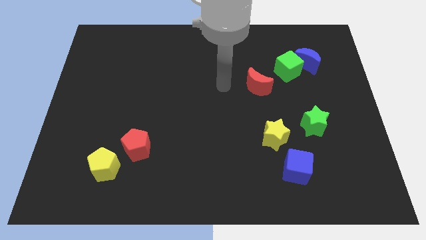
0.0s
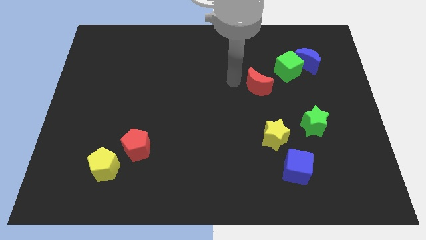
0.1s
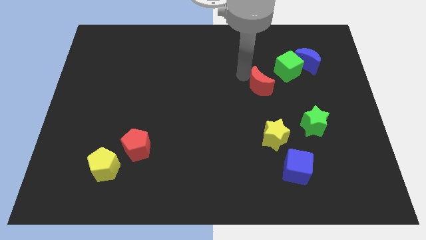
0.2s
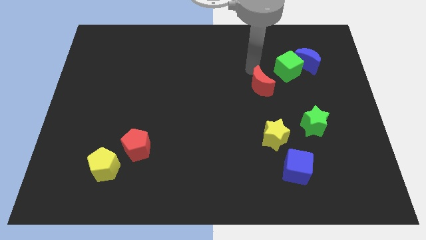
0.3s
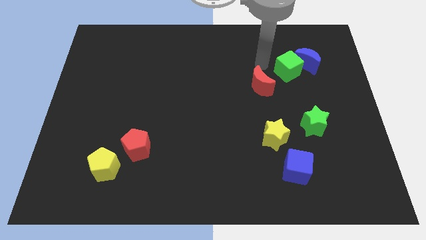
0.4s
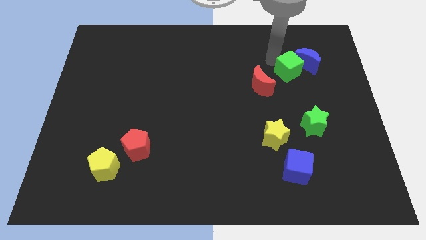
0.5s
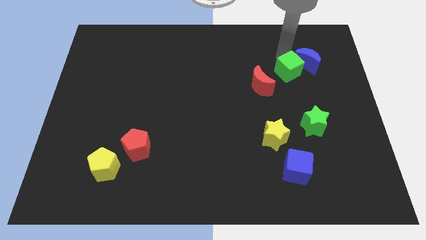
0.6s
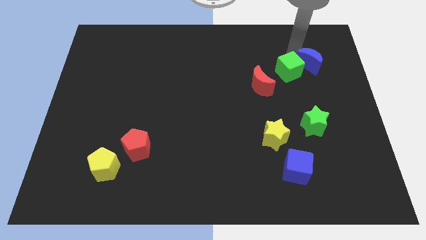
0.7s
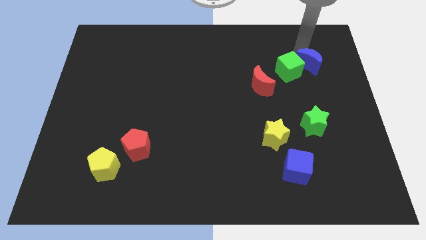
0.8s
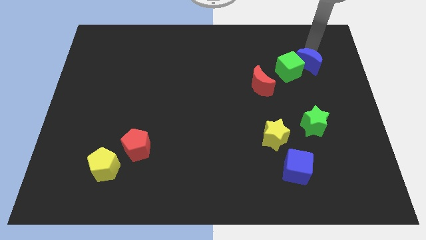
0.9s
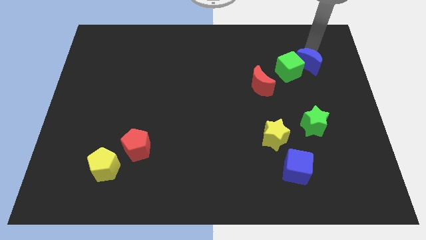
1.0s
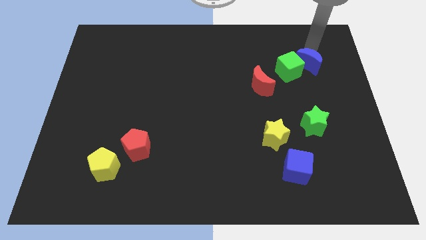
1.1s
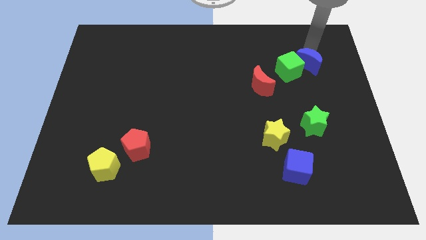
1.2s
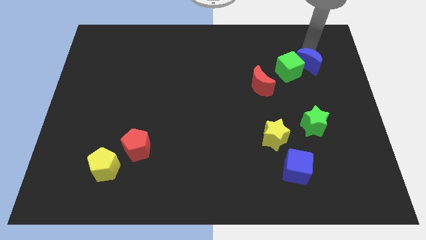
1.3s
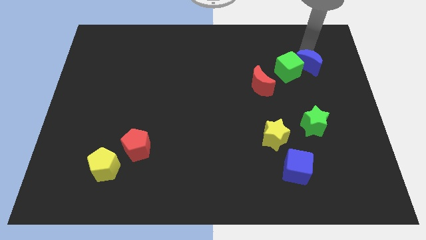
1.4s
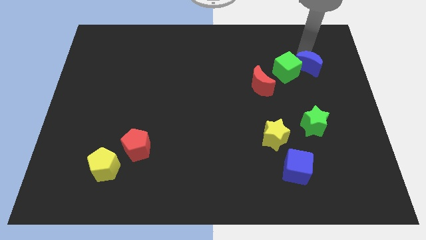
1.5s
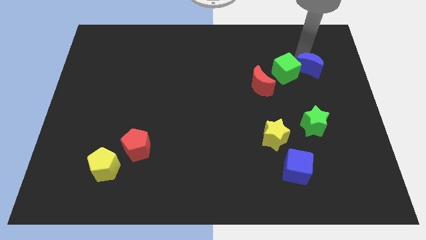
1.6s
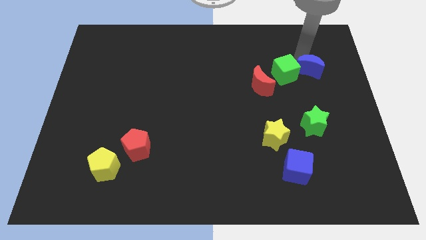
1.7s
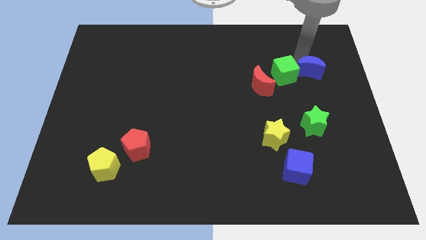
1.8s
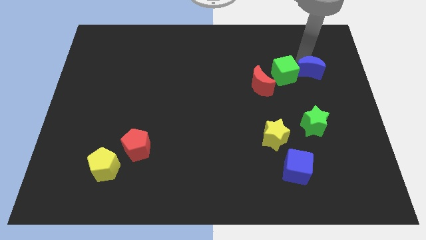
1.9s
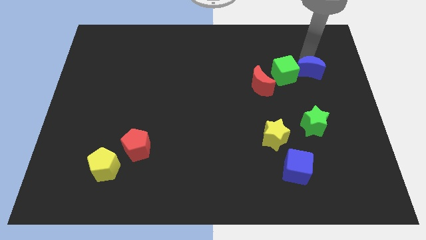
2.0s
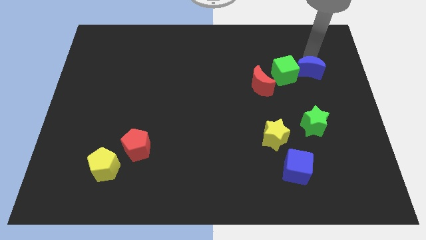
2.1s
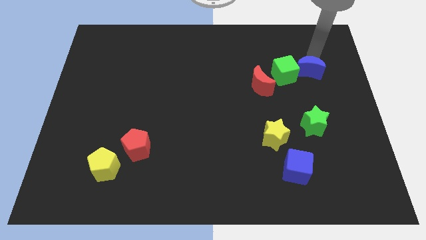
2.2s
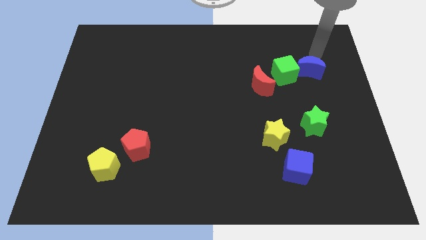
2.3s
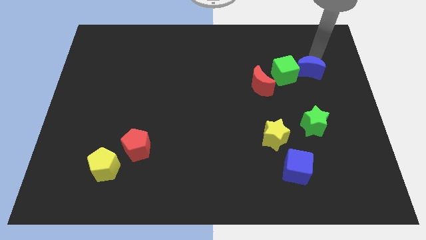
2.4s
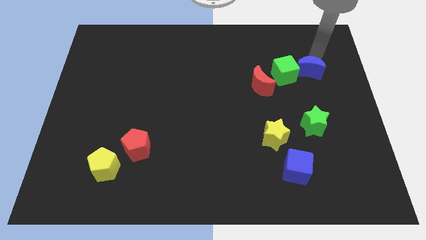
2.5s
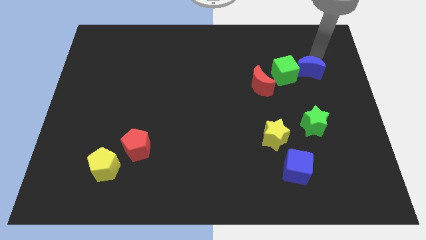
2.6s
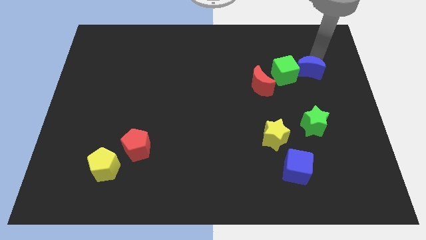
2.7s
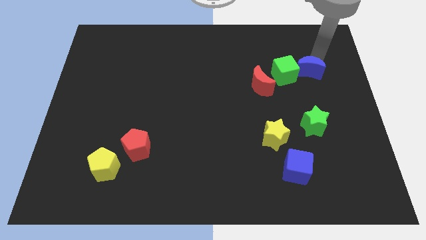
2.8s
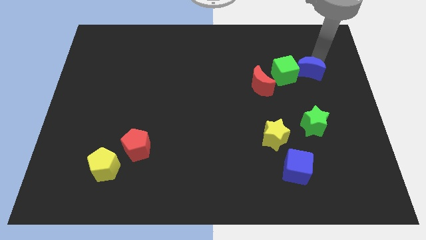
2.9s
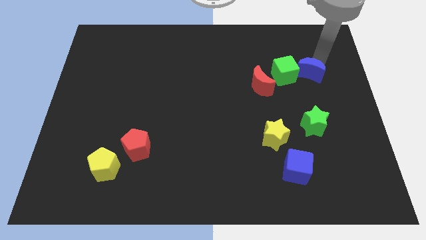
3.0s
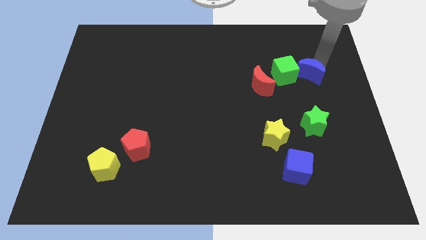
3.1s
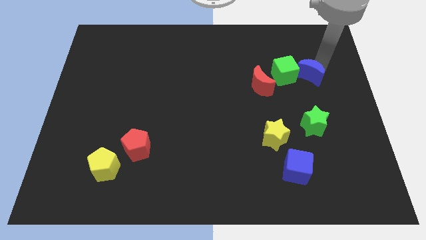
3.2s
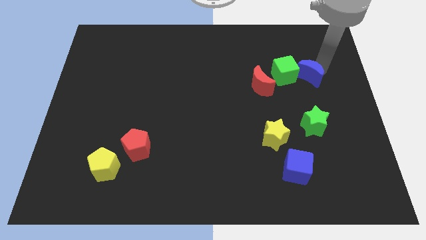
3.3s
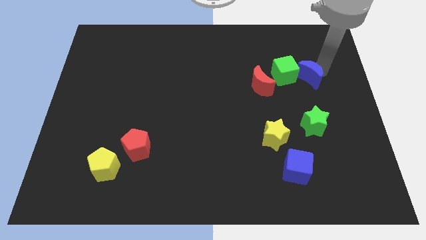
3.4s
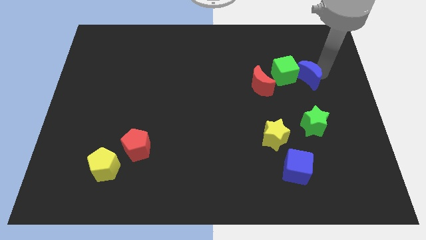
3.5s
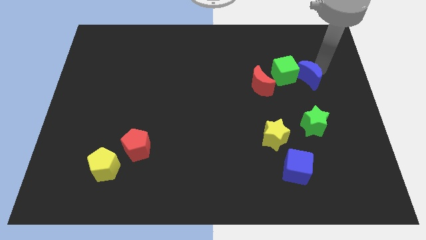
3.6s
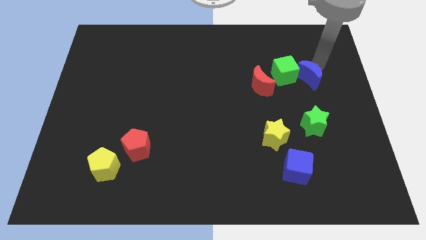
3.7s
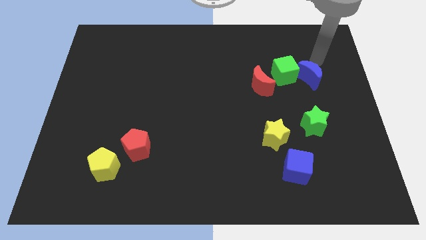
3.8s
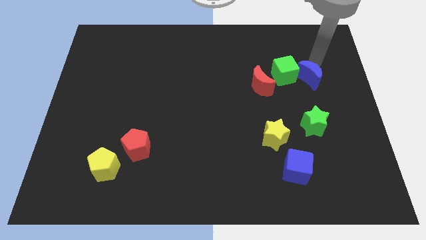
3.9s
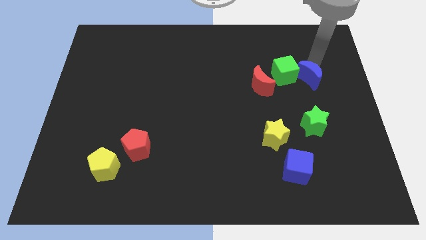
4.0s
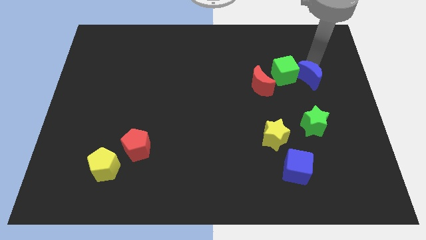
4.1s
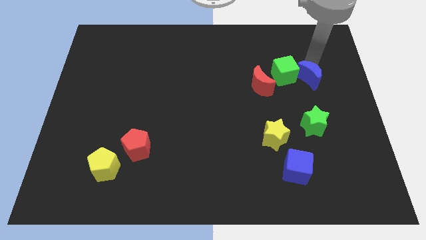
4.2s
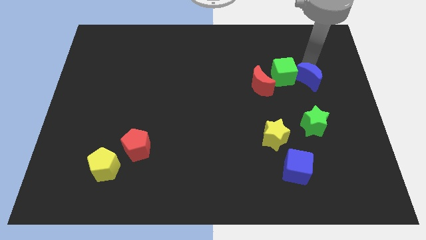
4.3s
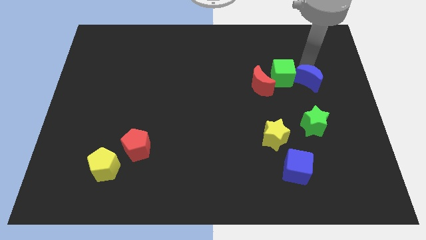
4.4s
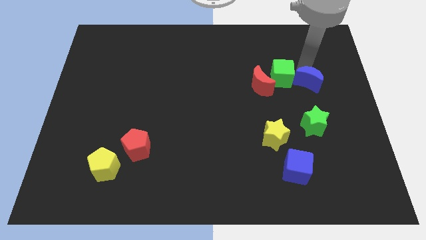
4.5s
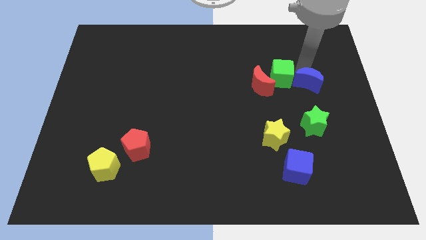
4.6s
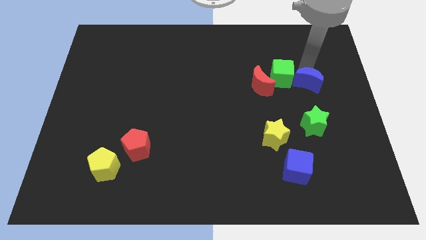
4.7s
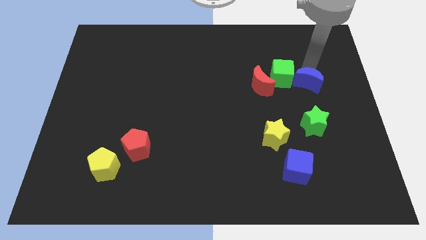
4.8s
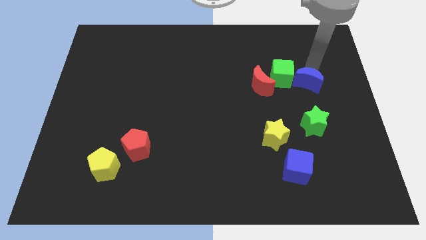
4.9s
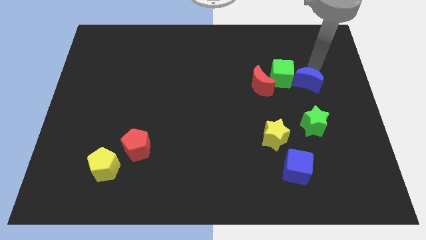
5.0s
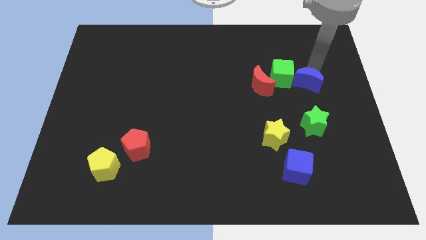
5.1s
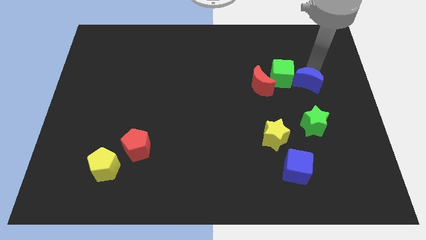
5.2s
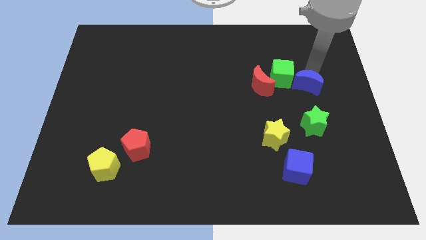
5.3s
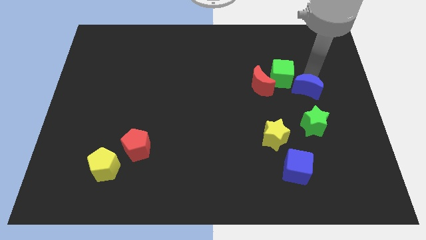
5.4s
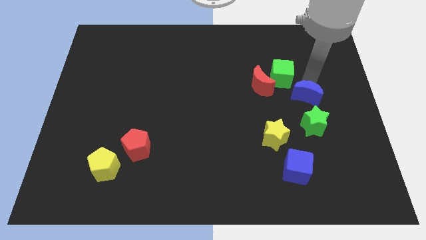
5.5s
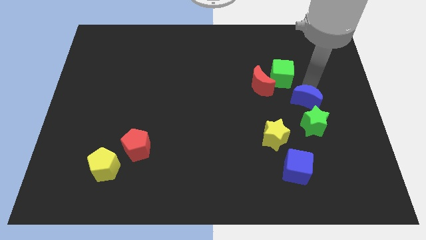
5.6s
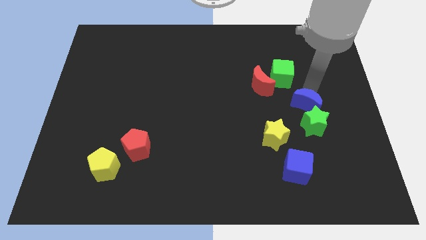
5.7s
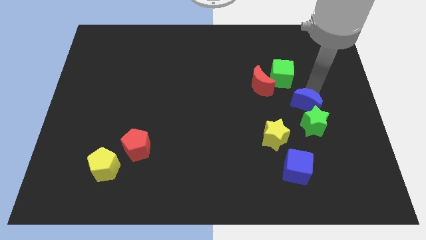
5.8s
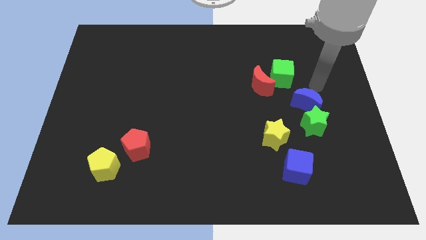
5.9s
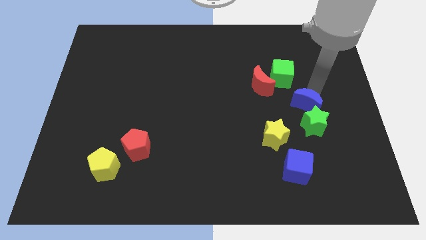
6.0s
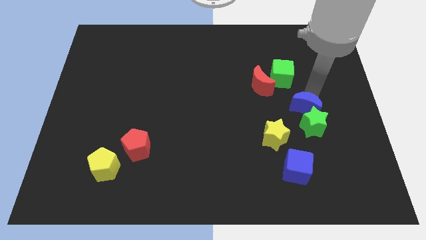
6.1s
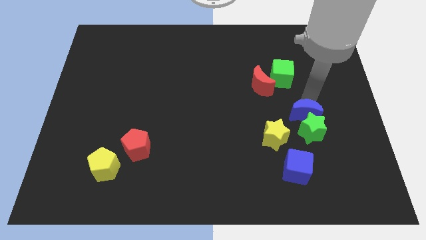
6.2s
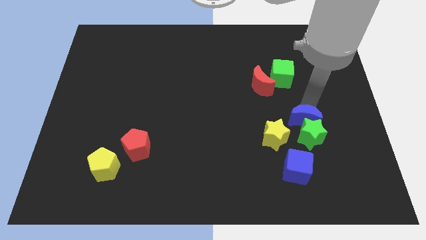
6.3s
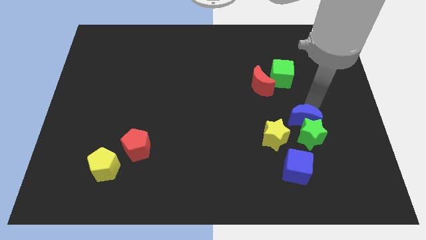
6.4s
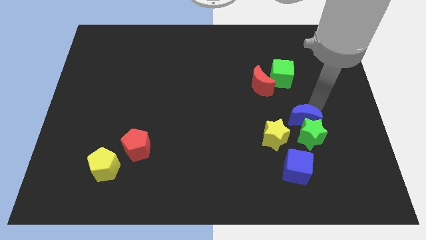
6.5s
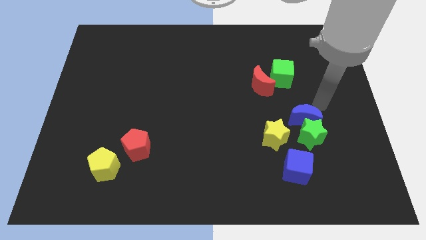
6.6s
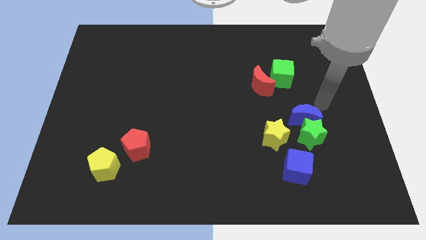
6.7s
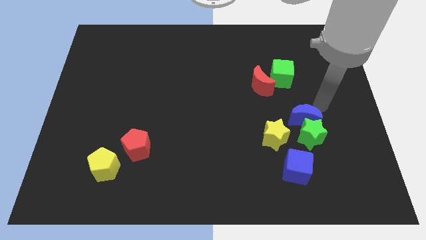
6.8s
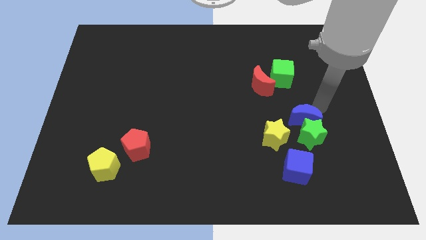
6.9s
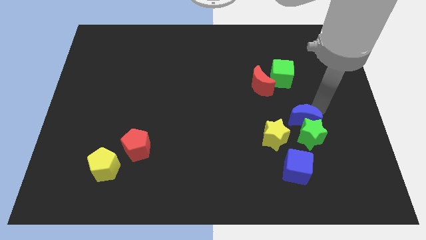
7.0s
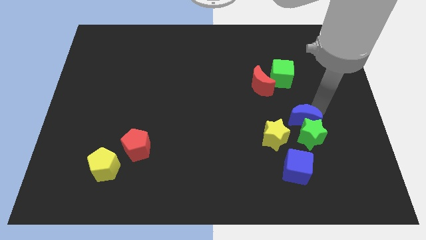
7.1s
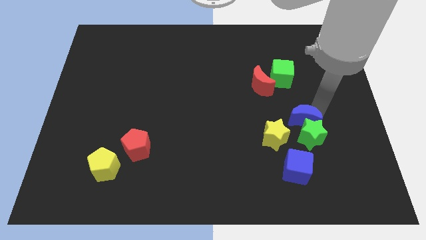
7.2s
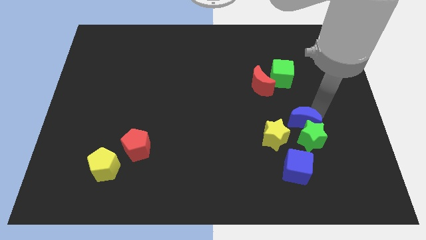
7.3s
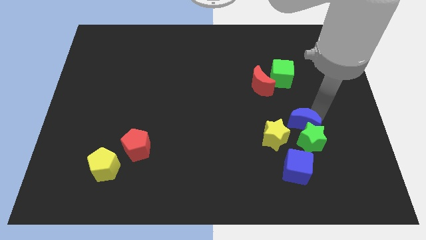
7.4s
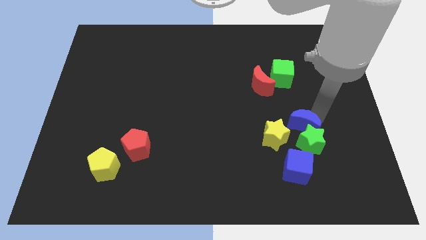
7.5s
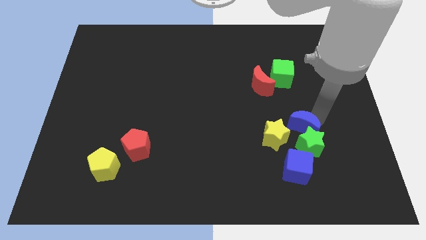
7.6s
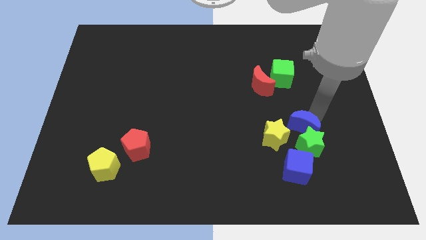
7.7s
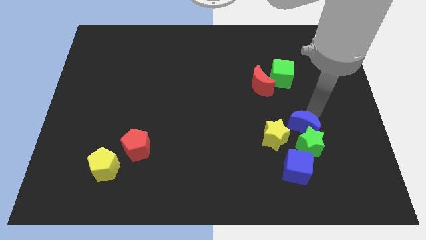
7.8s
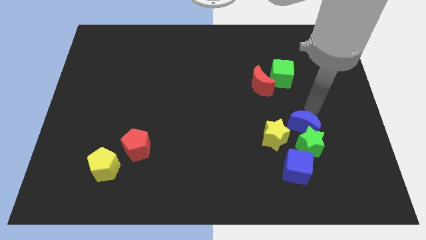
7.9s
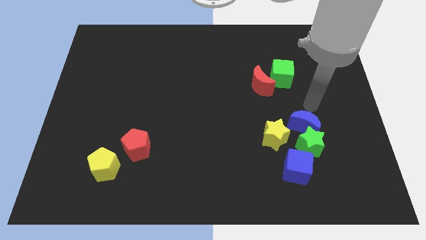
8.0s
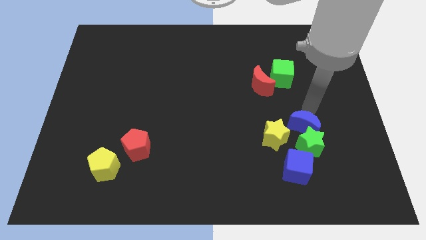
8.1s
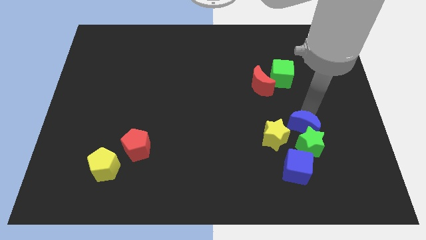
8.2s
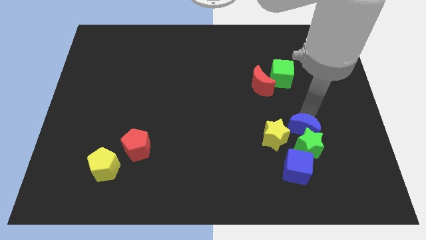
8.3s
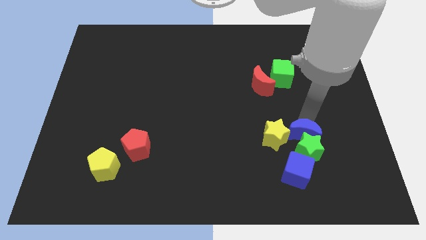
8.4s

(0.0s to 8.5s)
put the blue moon diagonally up and to the right of the blue cube
